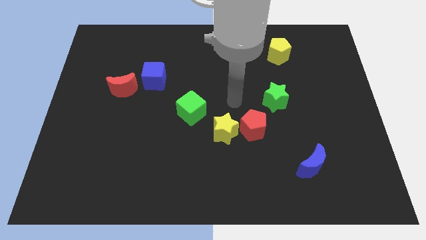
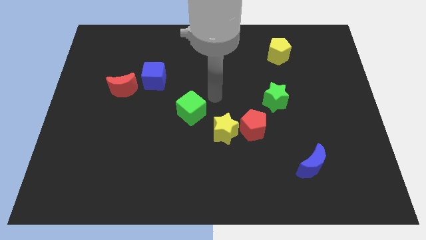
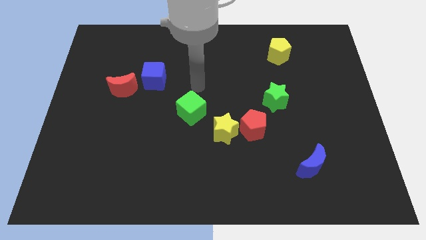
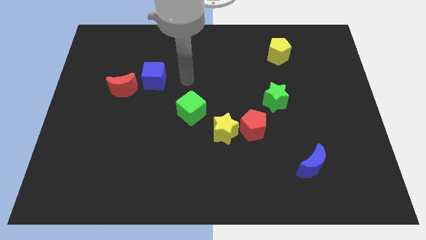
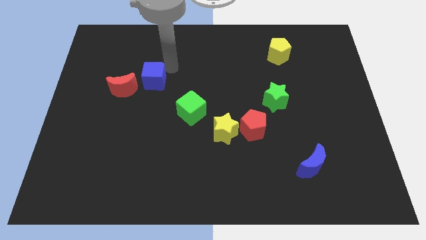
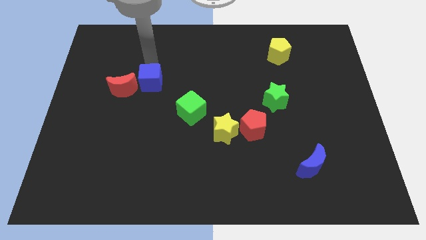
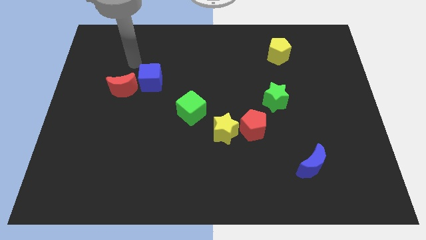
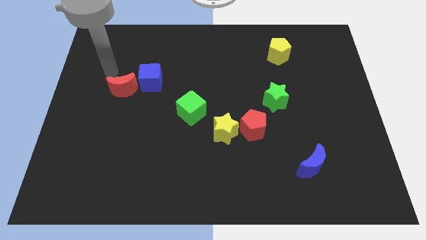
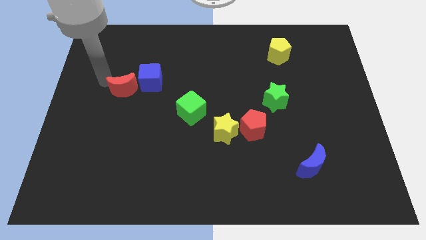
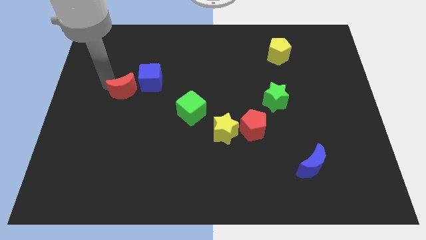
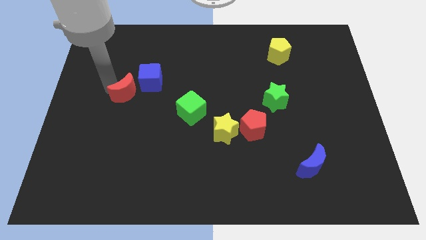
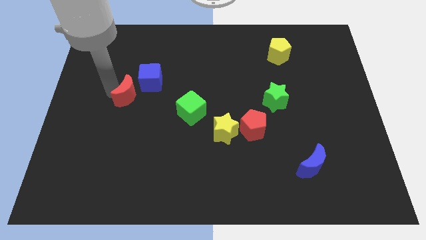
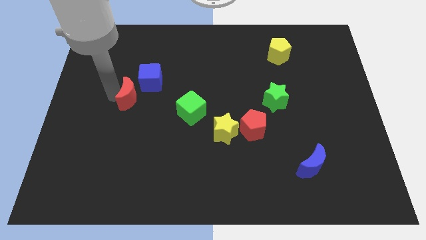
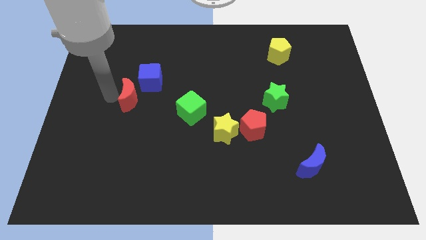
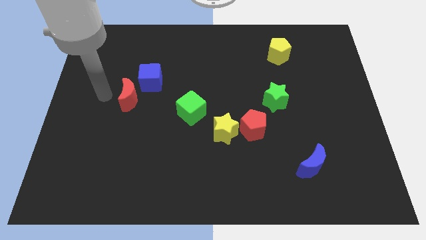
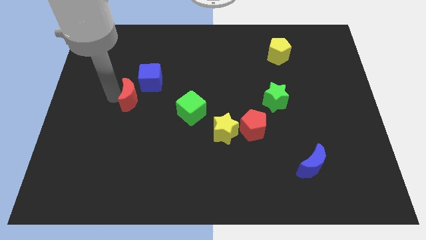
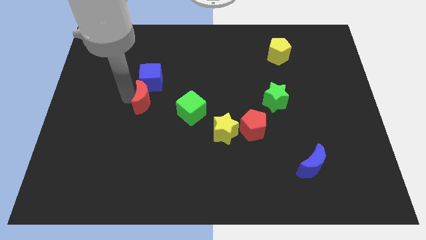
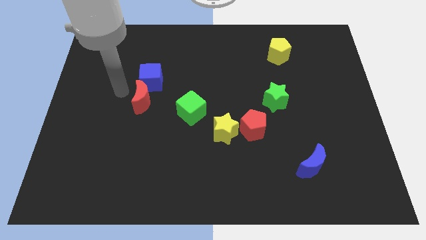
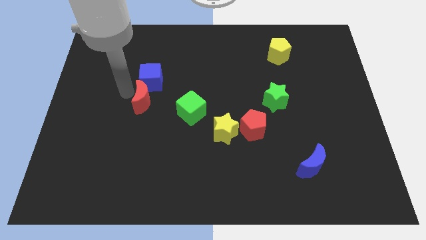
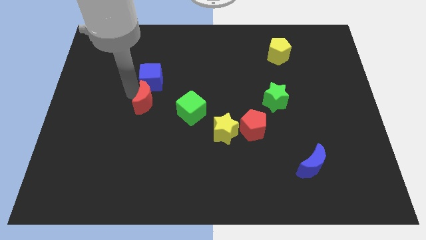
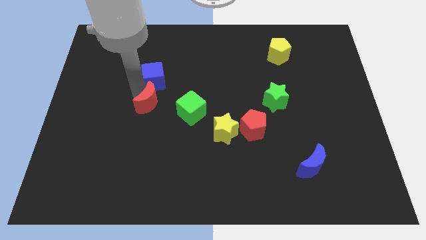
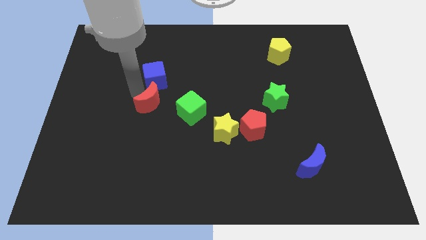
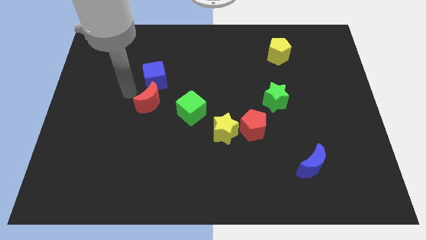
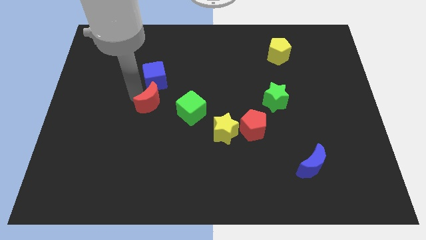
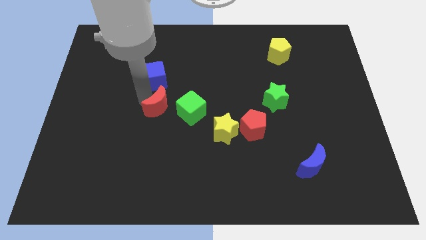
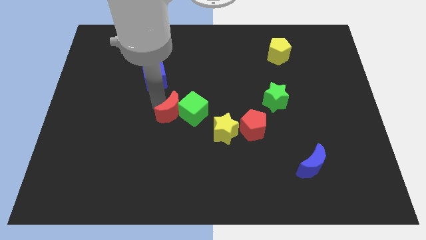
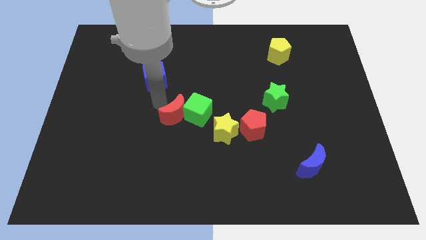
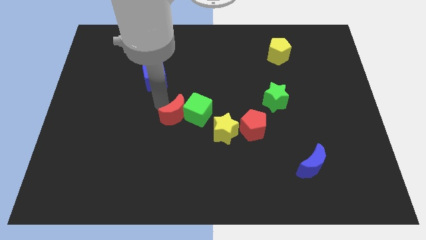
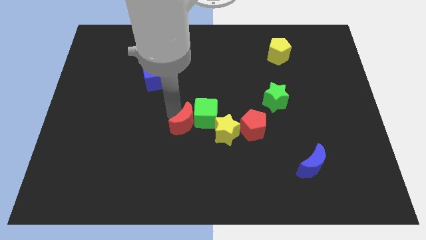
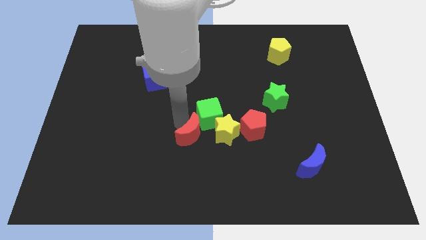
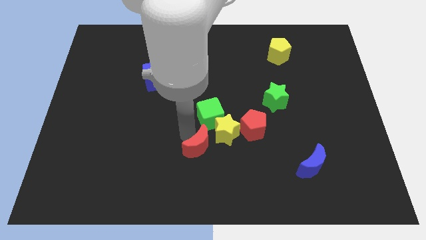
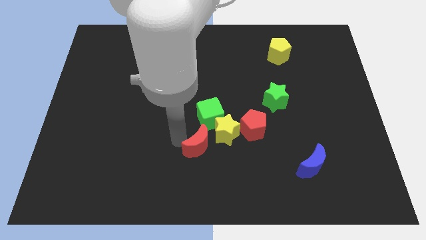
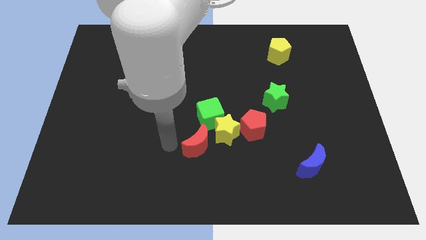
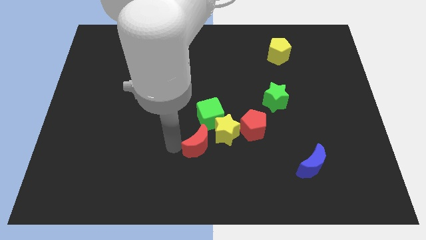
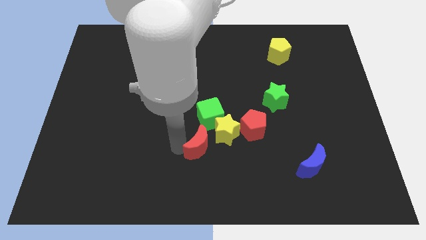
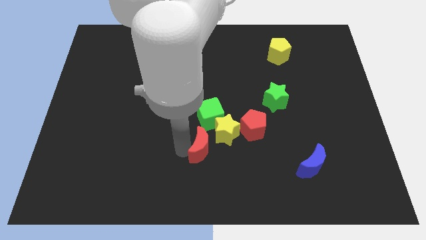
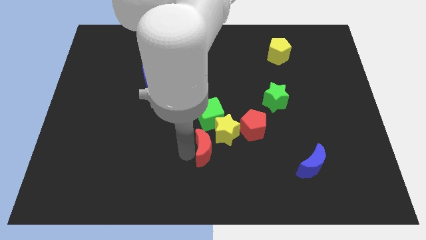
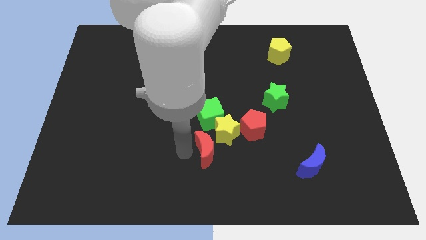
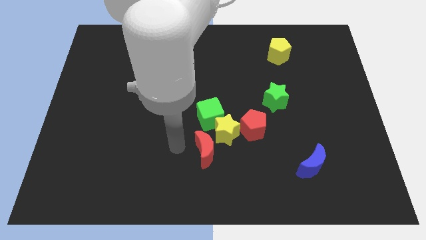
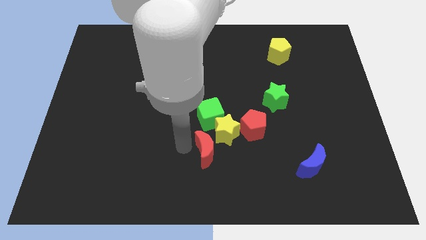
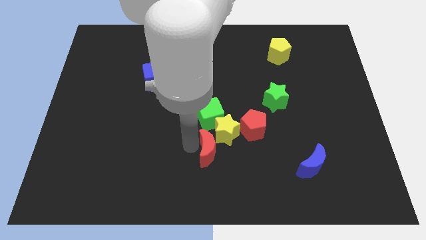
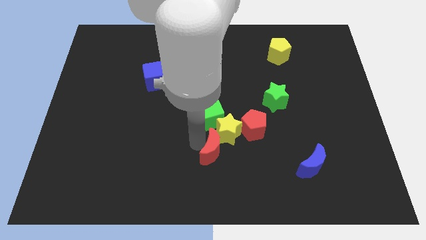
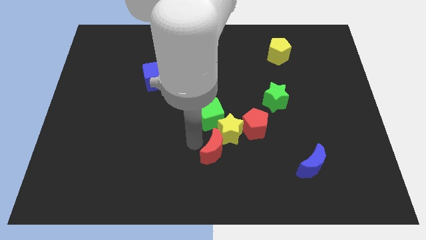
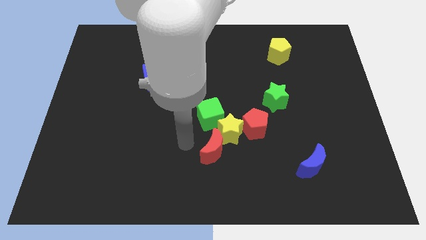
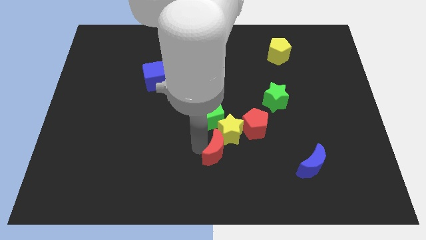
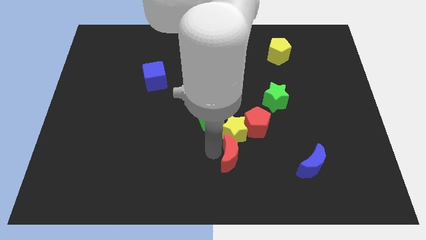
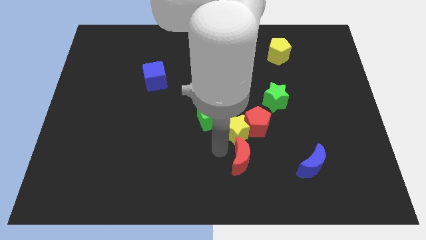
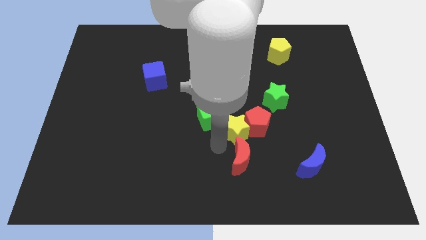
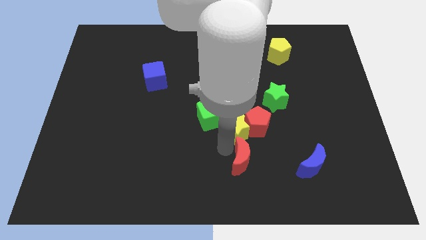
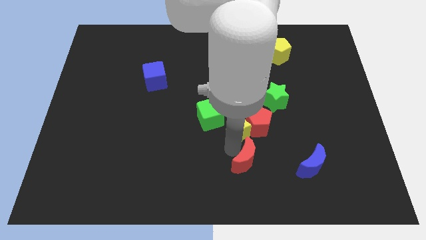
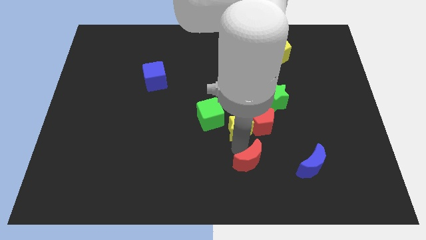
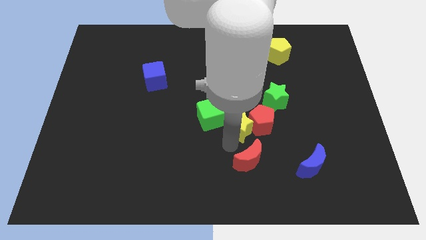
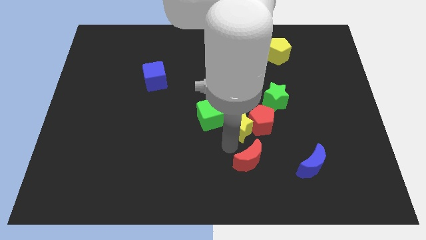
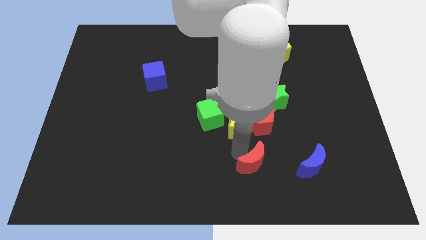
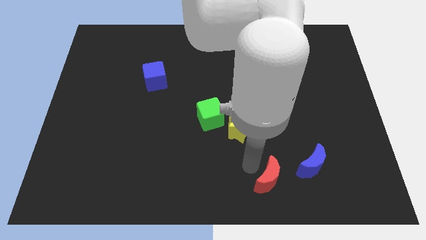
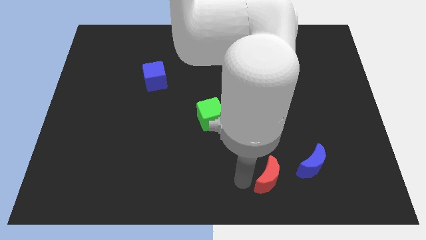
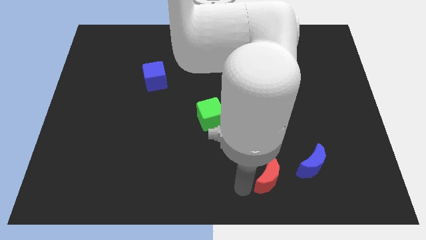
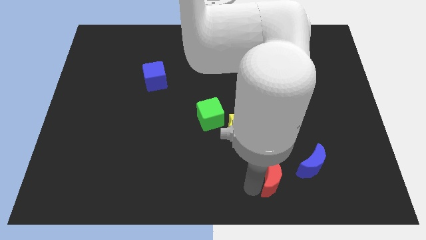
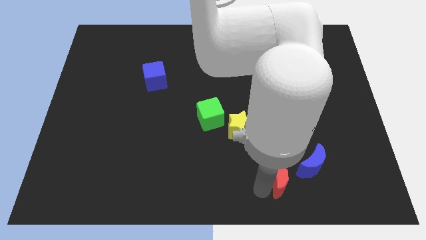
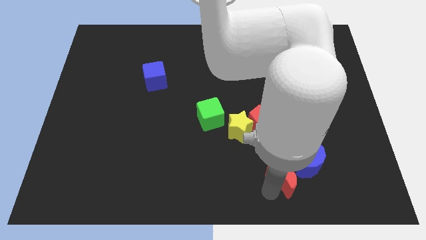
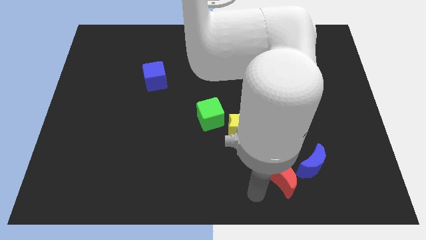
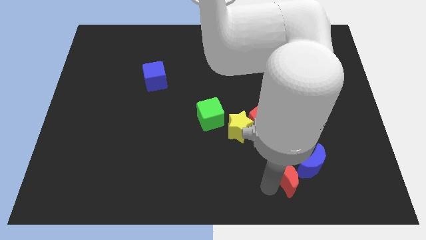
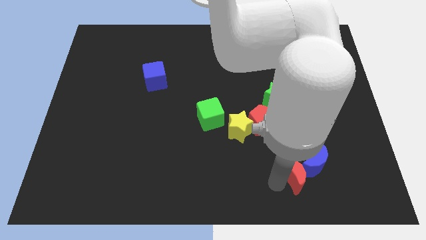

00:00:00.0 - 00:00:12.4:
push the red moon towards the blue moon
